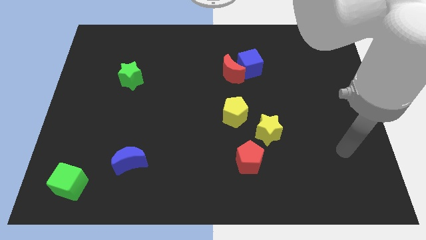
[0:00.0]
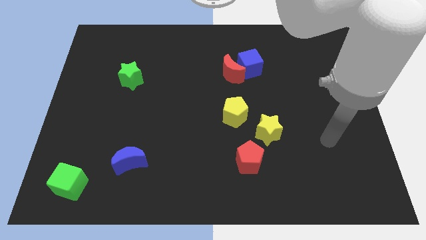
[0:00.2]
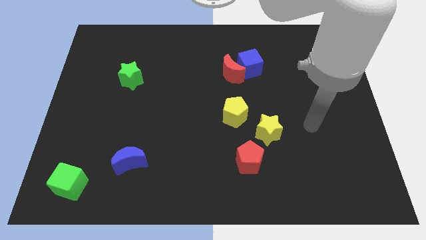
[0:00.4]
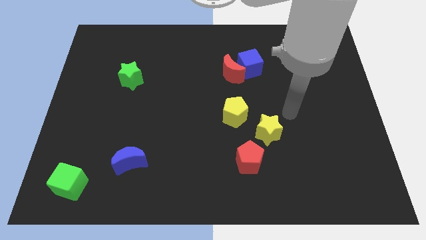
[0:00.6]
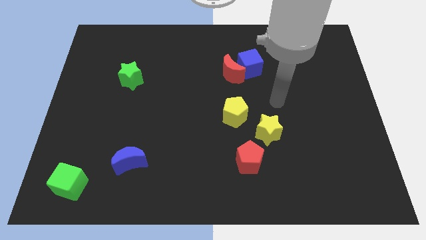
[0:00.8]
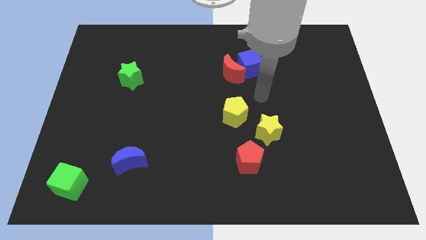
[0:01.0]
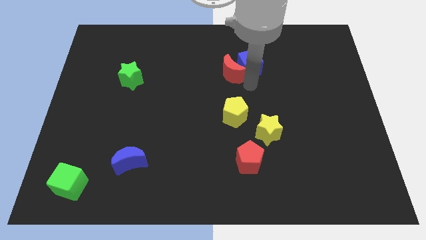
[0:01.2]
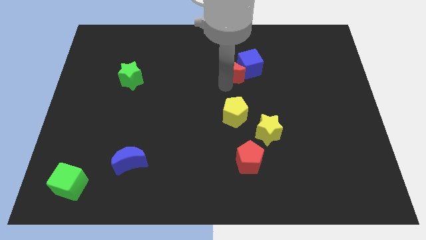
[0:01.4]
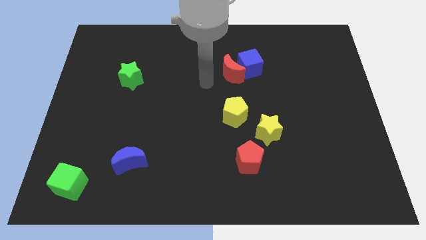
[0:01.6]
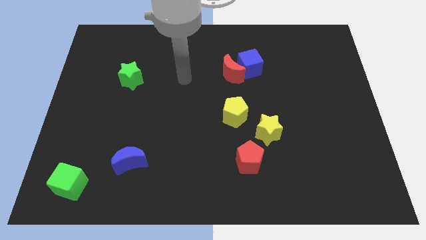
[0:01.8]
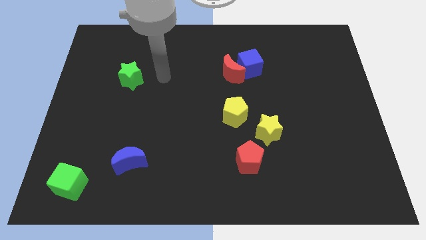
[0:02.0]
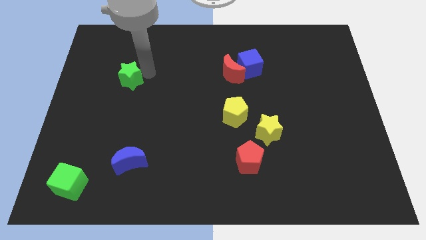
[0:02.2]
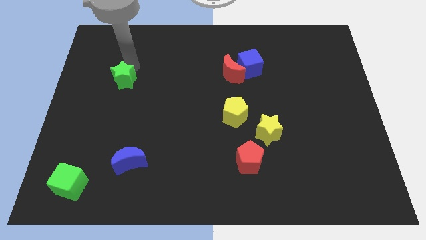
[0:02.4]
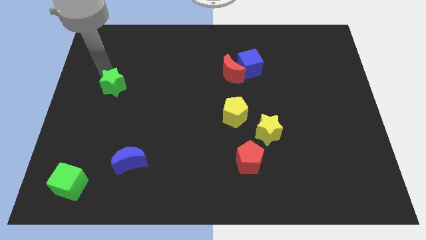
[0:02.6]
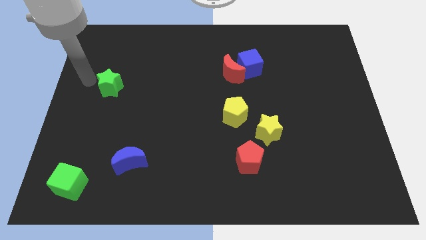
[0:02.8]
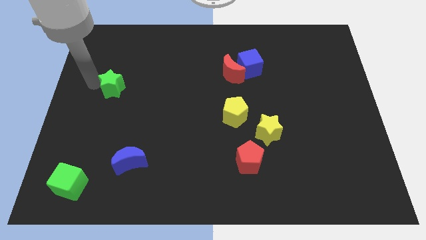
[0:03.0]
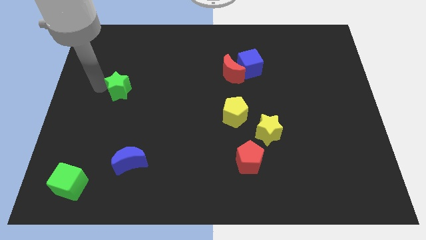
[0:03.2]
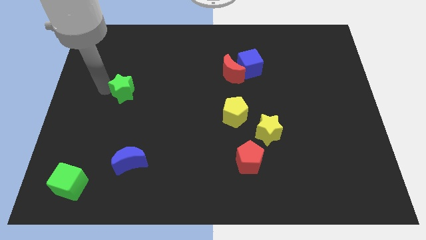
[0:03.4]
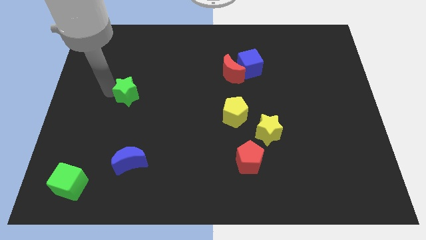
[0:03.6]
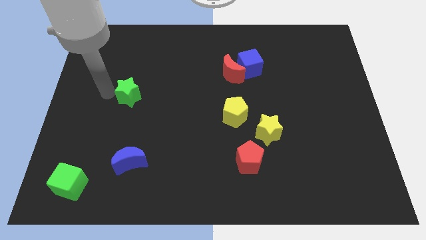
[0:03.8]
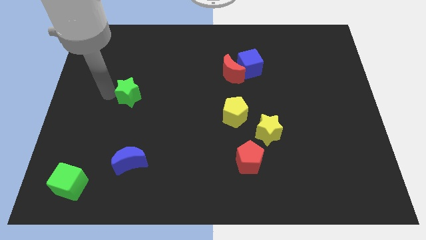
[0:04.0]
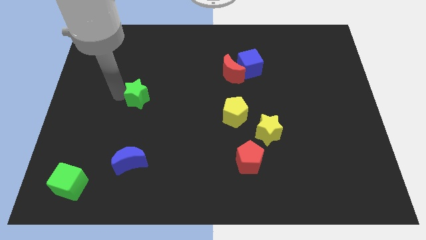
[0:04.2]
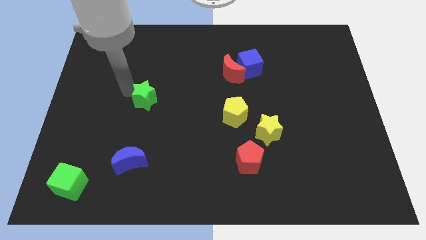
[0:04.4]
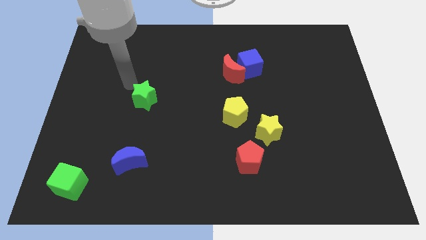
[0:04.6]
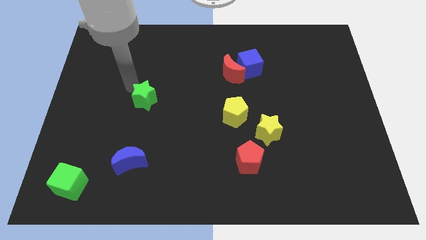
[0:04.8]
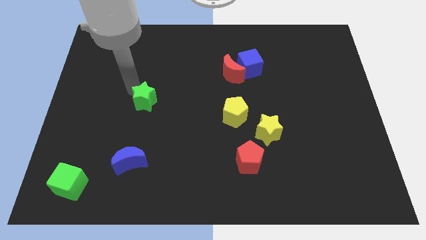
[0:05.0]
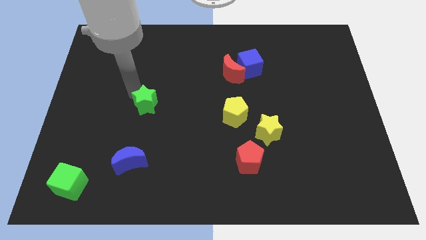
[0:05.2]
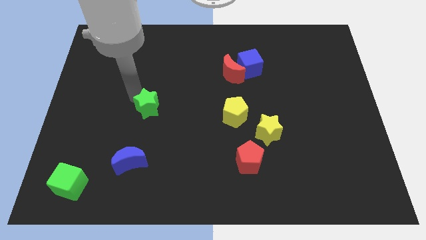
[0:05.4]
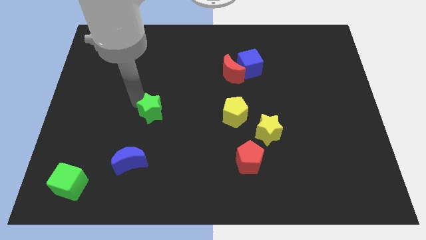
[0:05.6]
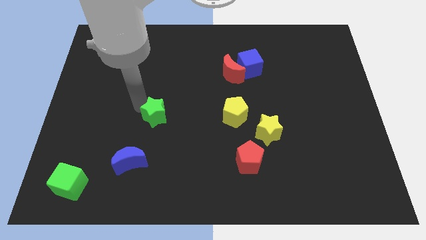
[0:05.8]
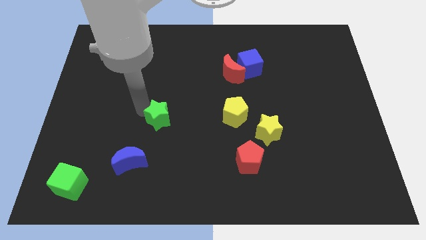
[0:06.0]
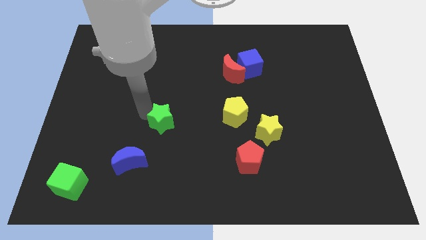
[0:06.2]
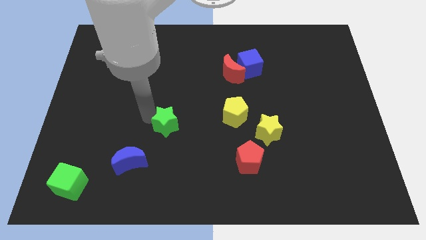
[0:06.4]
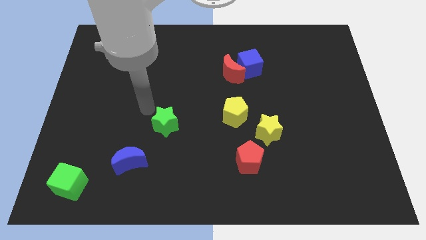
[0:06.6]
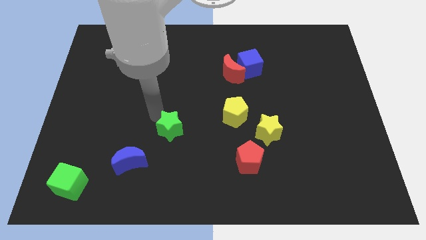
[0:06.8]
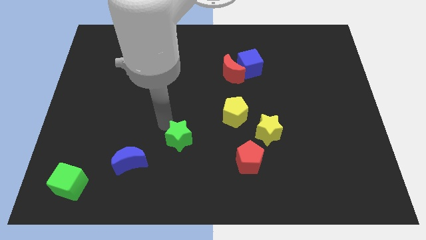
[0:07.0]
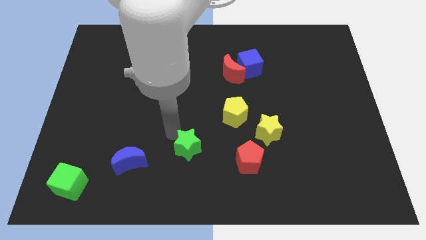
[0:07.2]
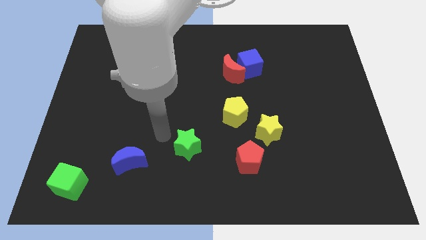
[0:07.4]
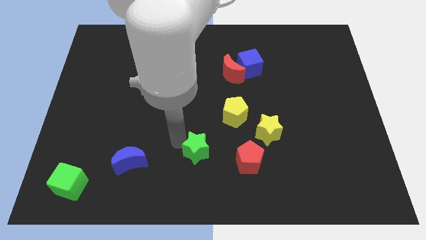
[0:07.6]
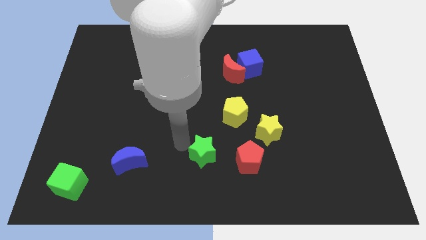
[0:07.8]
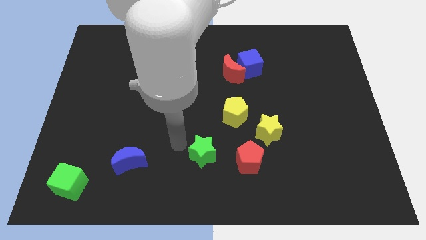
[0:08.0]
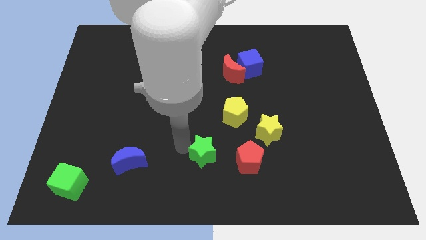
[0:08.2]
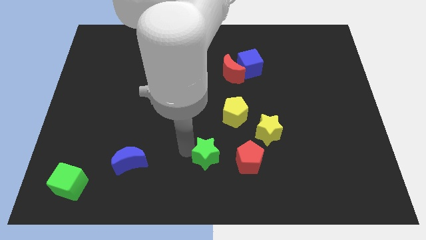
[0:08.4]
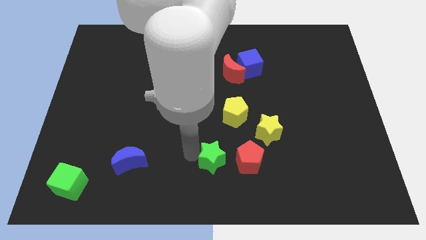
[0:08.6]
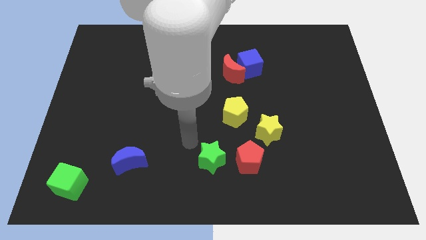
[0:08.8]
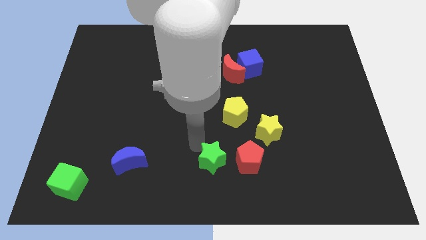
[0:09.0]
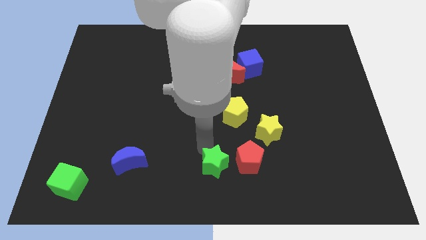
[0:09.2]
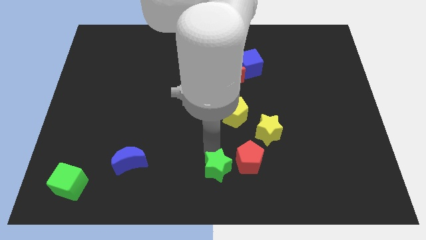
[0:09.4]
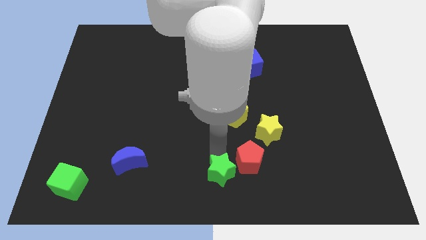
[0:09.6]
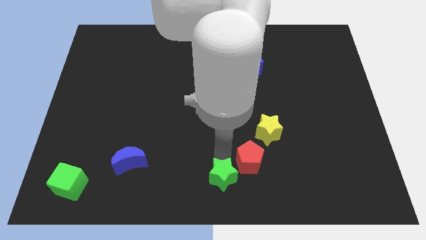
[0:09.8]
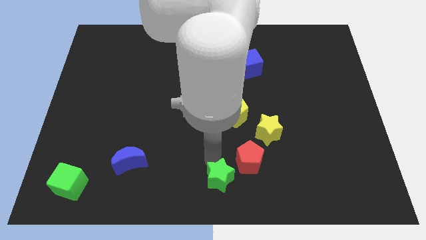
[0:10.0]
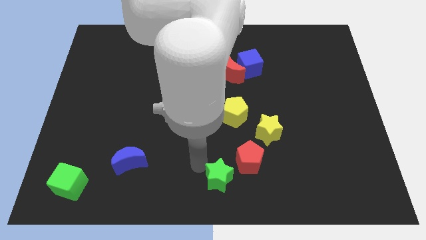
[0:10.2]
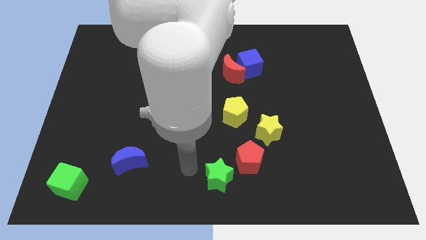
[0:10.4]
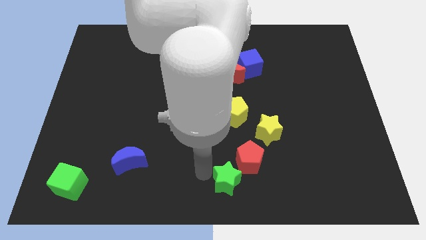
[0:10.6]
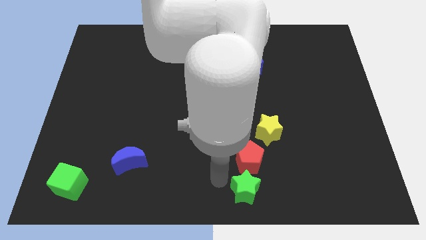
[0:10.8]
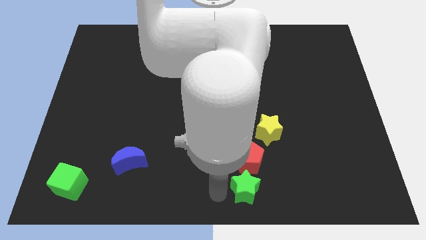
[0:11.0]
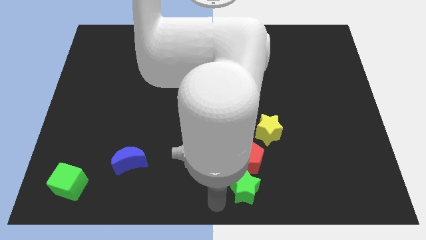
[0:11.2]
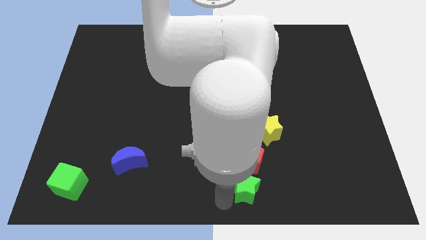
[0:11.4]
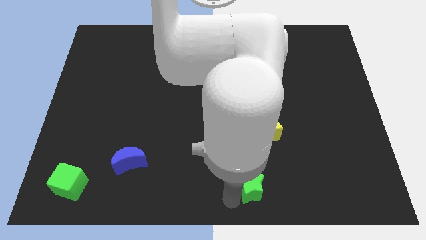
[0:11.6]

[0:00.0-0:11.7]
put the green star below the yellow star

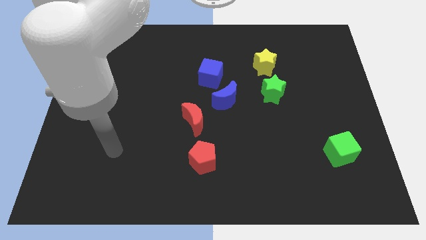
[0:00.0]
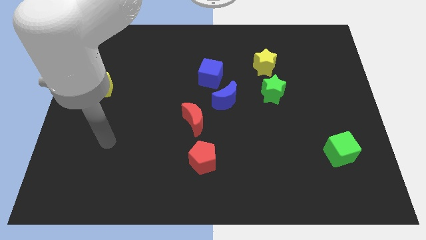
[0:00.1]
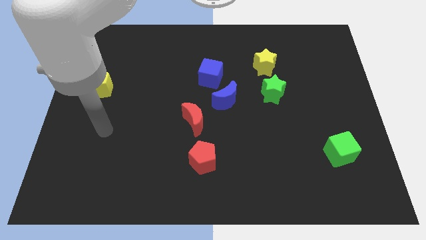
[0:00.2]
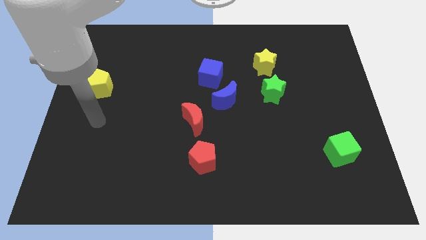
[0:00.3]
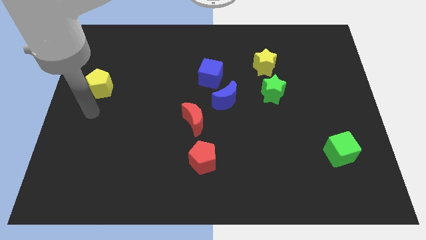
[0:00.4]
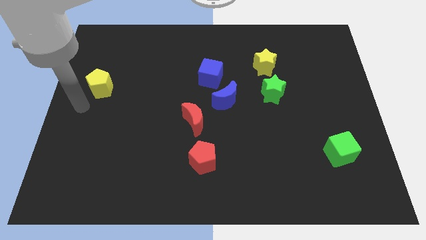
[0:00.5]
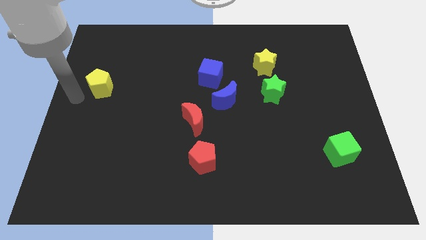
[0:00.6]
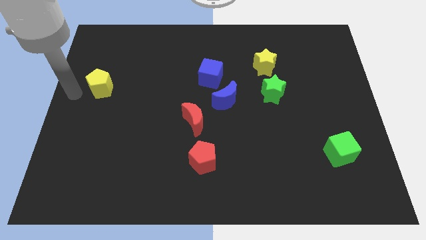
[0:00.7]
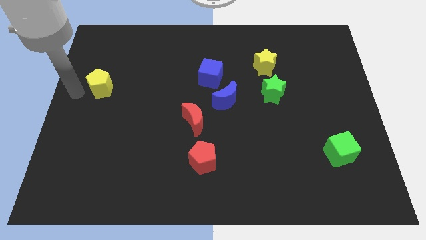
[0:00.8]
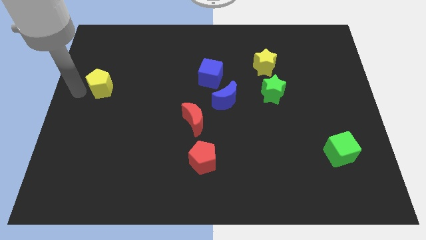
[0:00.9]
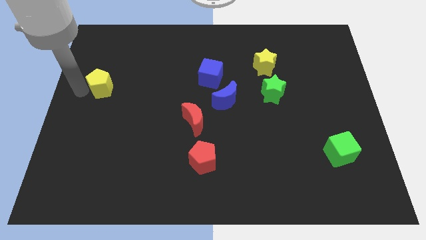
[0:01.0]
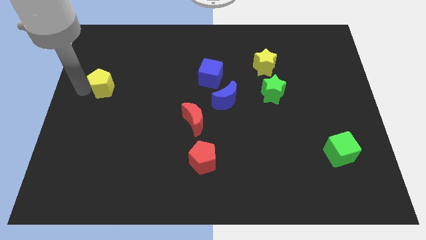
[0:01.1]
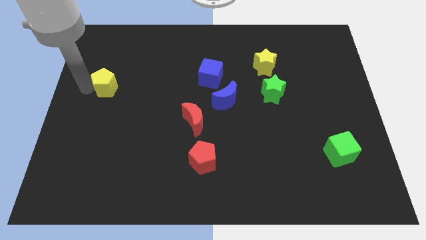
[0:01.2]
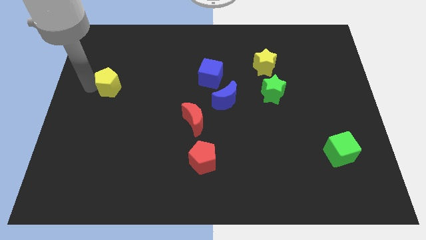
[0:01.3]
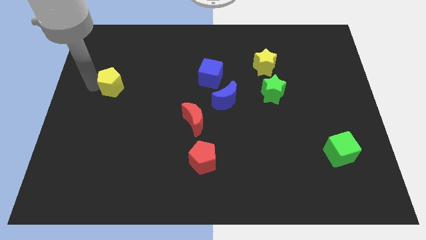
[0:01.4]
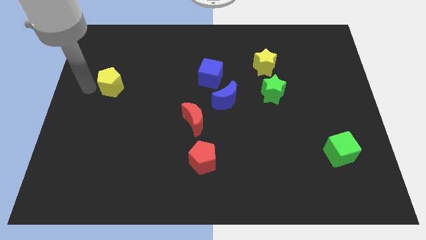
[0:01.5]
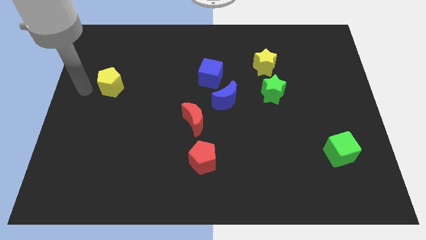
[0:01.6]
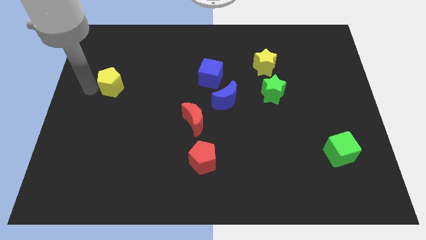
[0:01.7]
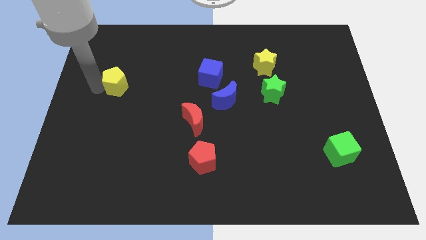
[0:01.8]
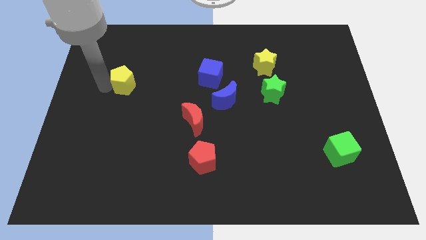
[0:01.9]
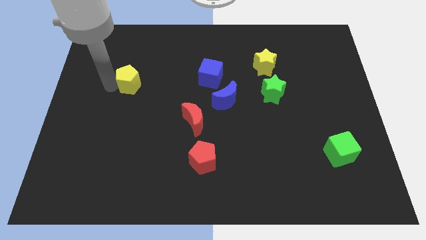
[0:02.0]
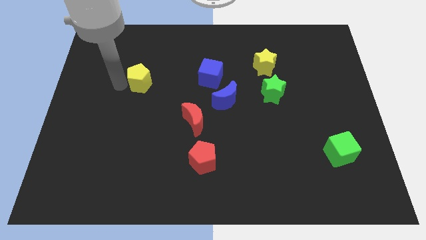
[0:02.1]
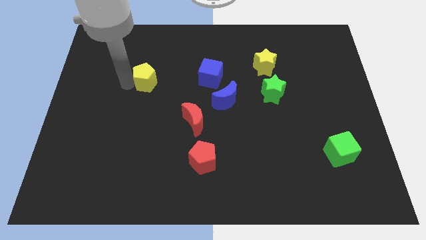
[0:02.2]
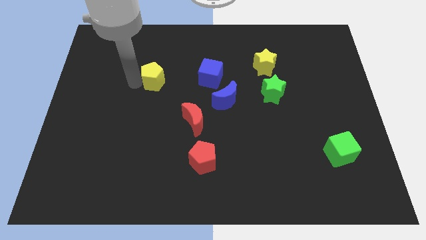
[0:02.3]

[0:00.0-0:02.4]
slide the yellow pentagon to the left of the blue cube

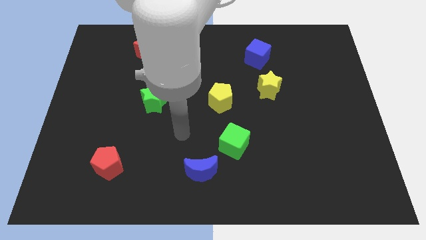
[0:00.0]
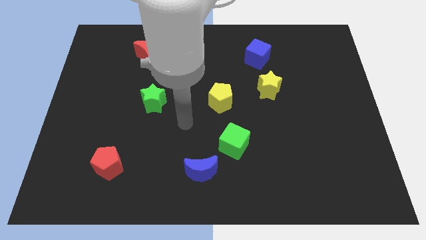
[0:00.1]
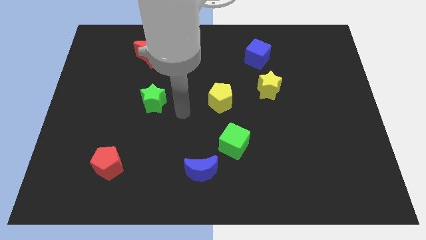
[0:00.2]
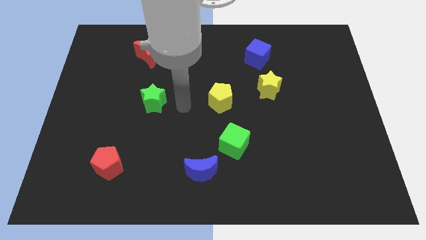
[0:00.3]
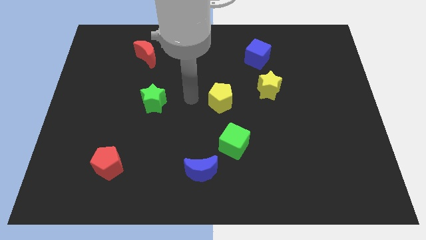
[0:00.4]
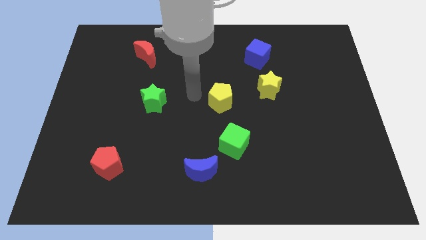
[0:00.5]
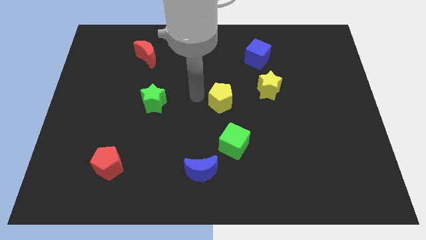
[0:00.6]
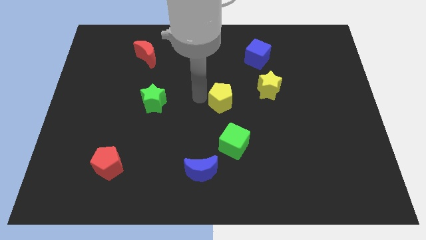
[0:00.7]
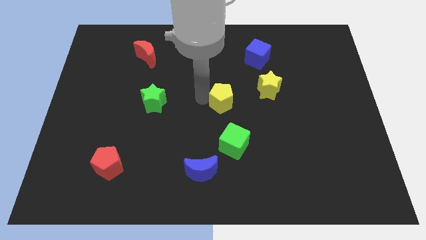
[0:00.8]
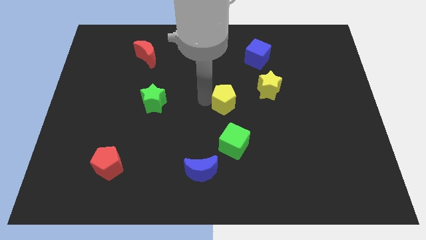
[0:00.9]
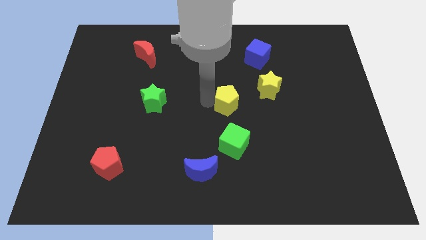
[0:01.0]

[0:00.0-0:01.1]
move the yellow pentagon to the bottom left side of the yellow star
